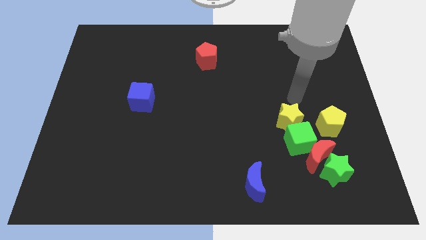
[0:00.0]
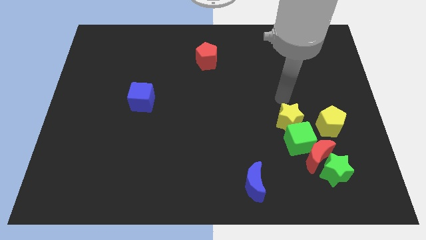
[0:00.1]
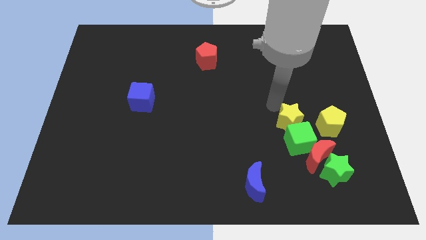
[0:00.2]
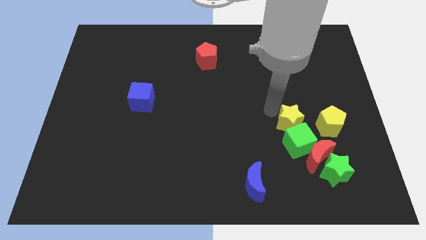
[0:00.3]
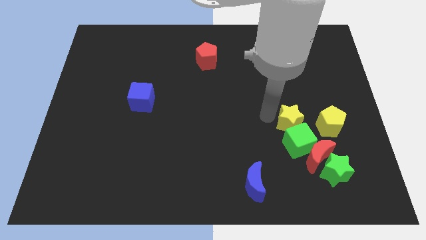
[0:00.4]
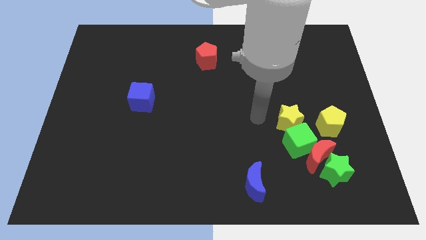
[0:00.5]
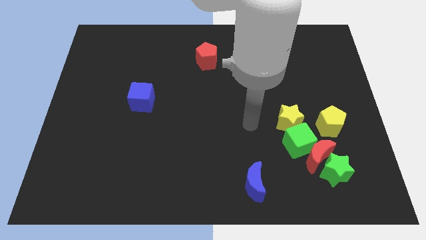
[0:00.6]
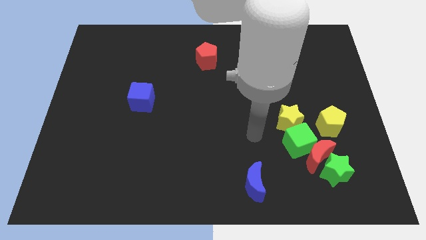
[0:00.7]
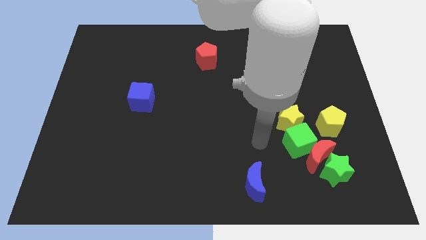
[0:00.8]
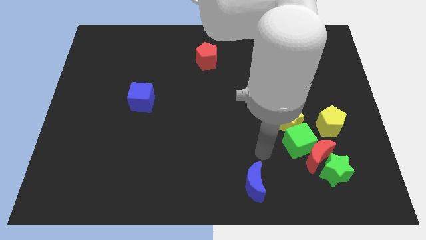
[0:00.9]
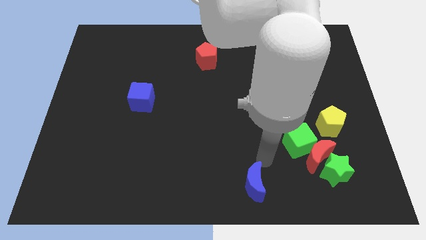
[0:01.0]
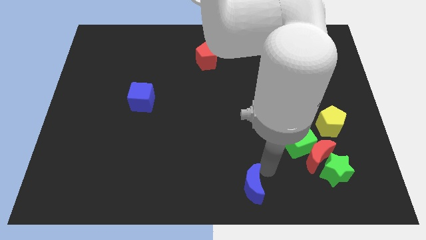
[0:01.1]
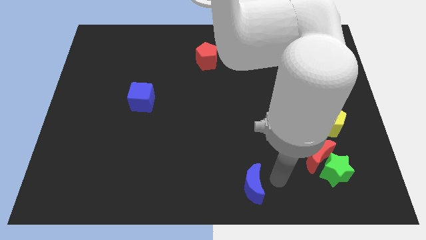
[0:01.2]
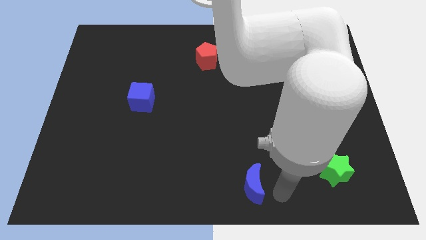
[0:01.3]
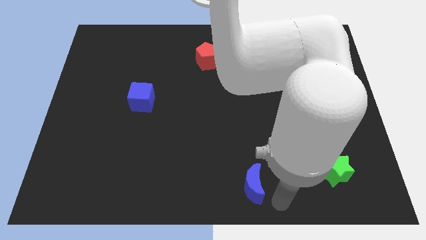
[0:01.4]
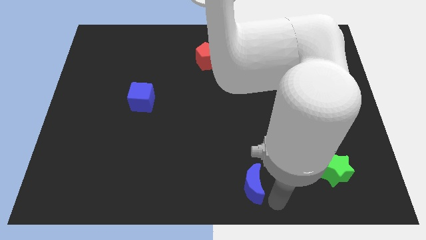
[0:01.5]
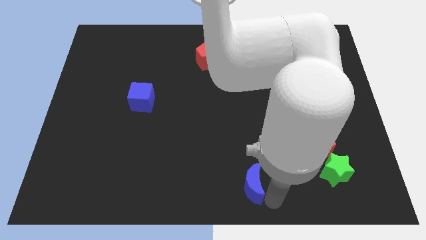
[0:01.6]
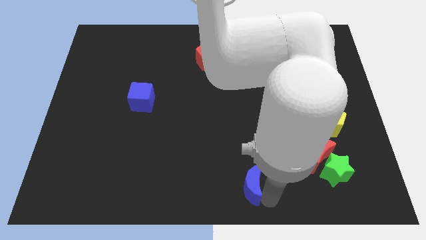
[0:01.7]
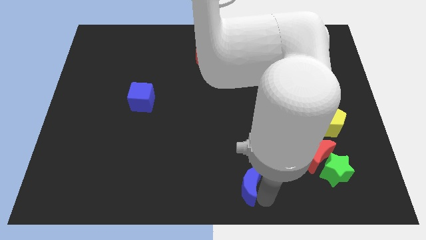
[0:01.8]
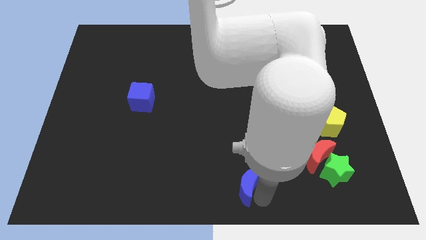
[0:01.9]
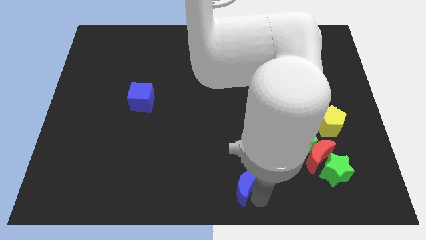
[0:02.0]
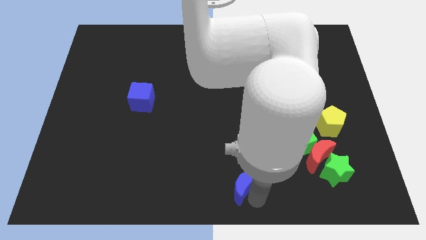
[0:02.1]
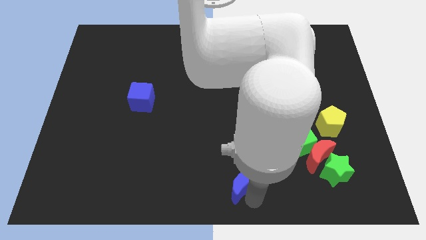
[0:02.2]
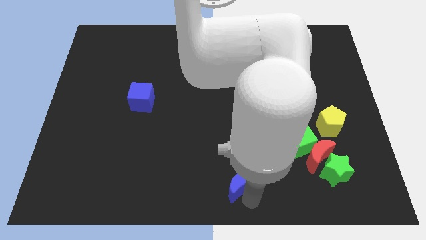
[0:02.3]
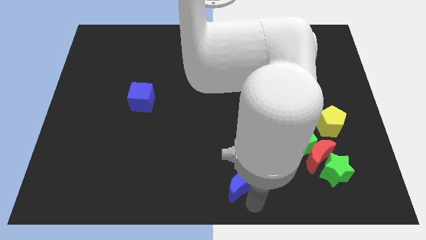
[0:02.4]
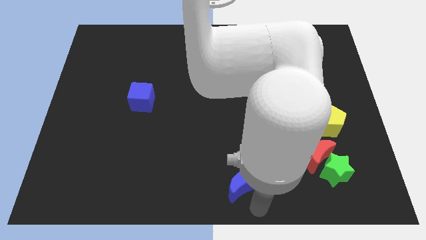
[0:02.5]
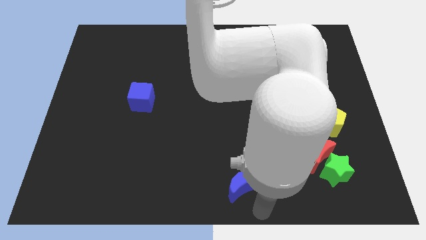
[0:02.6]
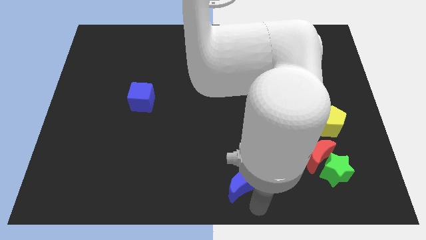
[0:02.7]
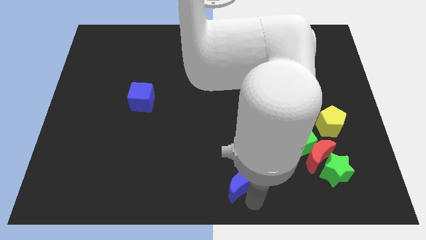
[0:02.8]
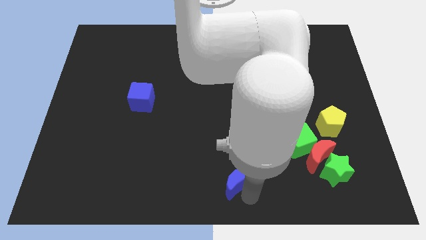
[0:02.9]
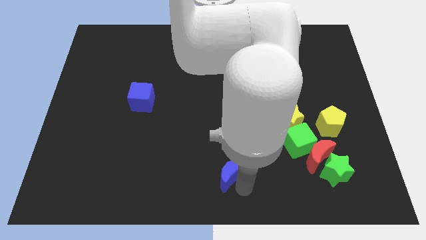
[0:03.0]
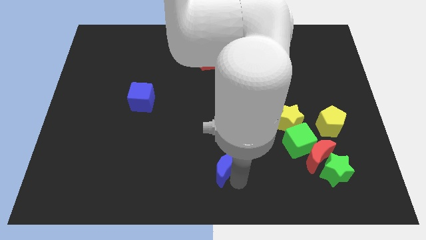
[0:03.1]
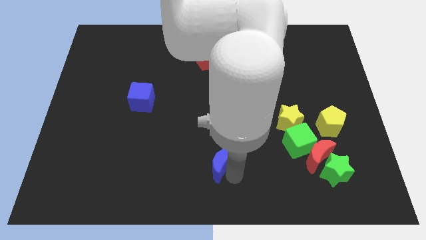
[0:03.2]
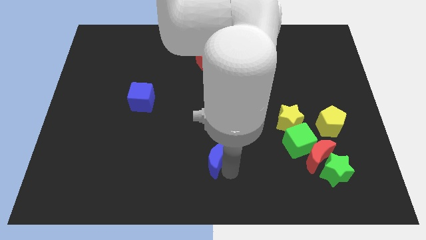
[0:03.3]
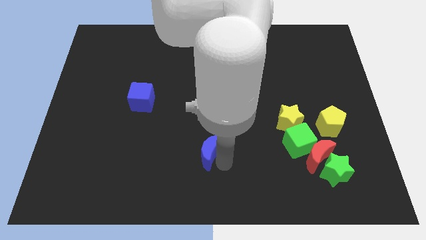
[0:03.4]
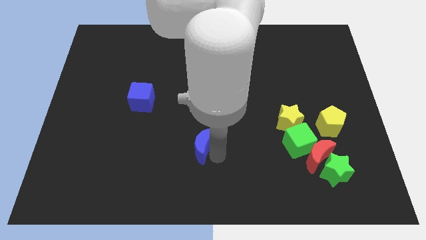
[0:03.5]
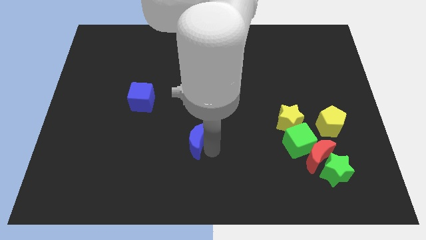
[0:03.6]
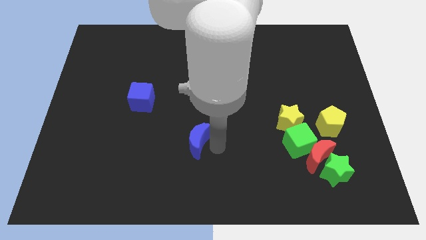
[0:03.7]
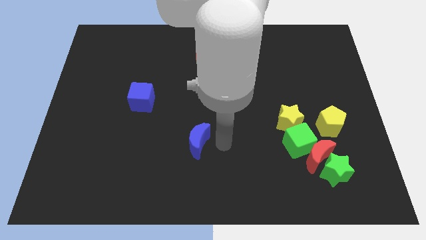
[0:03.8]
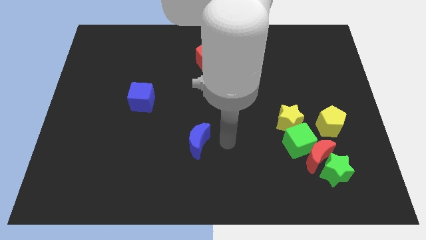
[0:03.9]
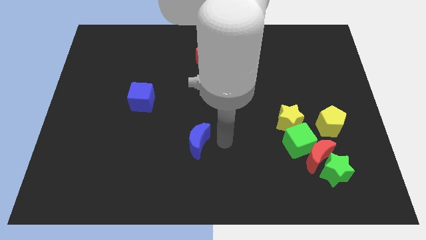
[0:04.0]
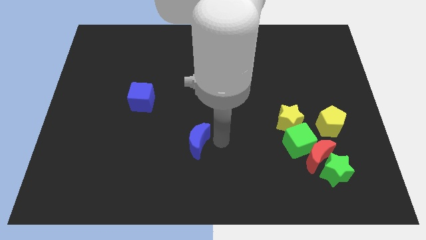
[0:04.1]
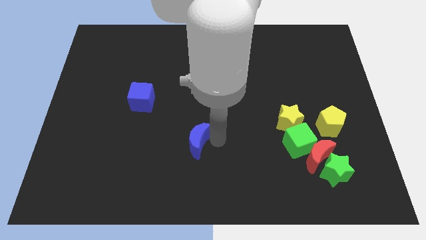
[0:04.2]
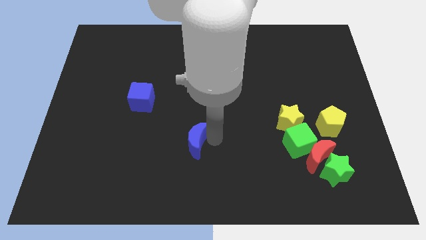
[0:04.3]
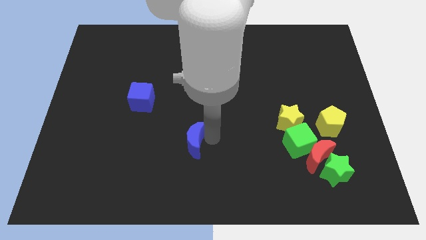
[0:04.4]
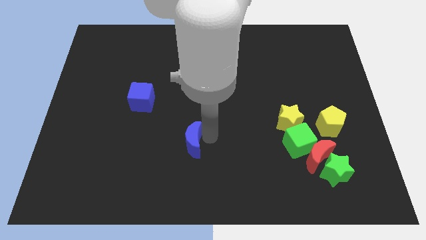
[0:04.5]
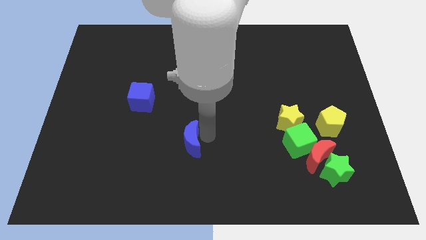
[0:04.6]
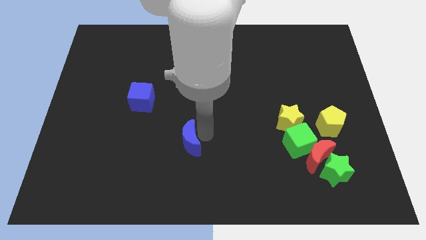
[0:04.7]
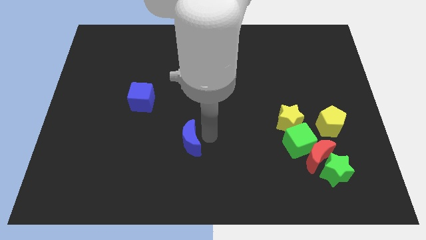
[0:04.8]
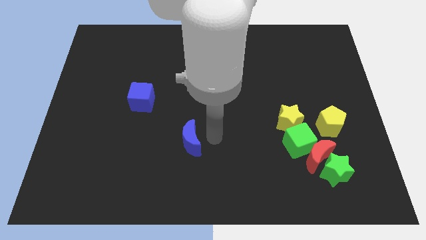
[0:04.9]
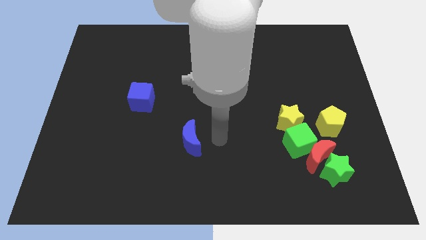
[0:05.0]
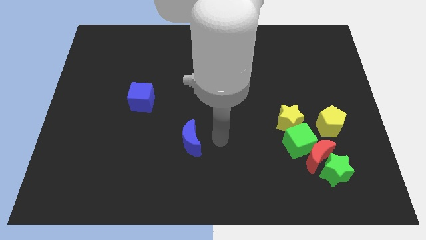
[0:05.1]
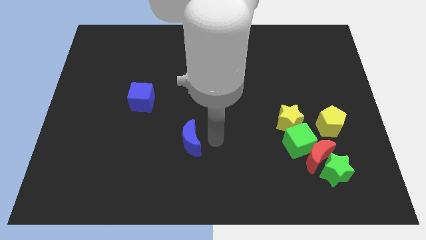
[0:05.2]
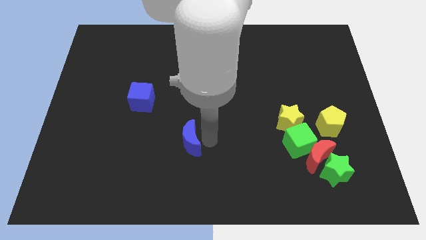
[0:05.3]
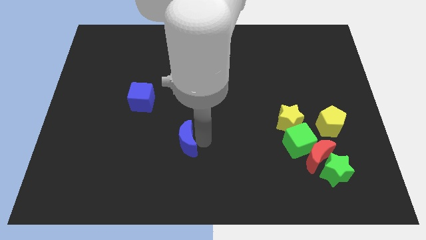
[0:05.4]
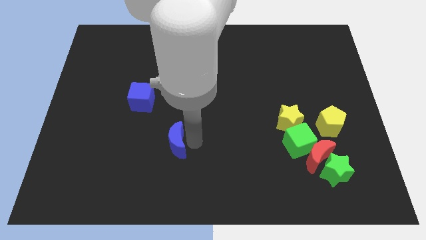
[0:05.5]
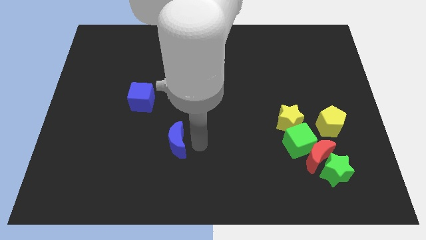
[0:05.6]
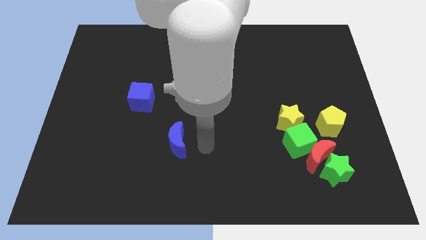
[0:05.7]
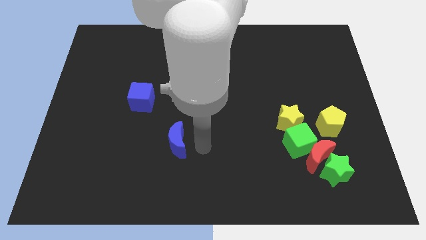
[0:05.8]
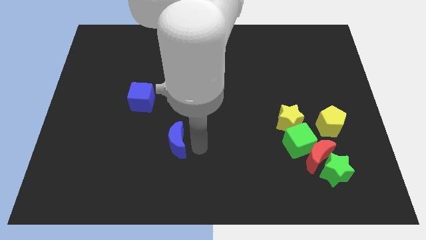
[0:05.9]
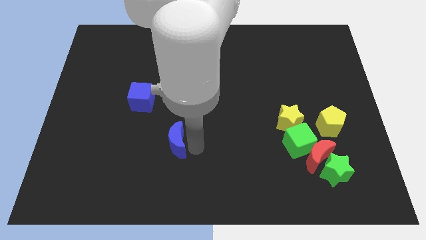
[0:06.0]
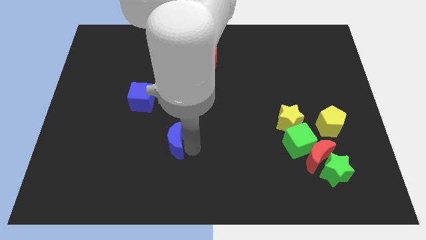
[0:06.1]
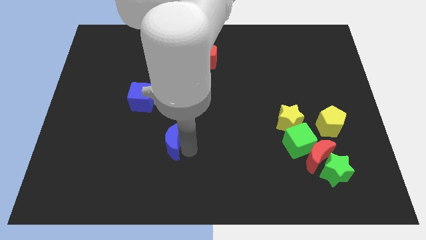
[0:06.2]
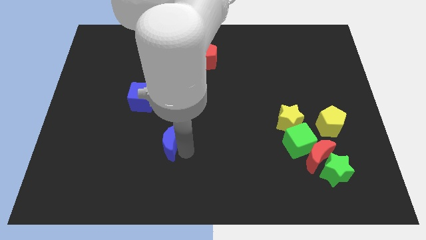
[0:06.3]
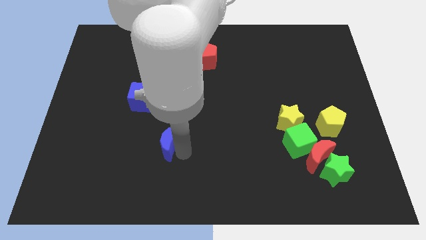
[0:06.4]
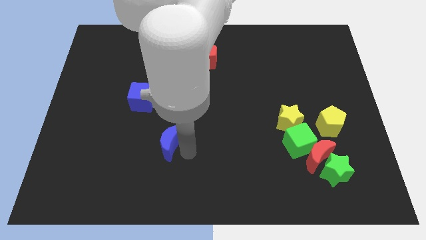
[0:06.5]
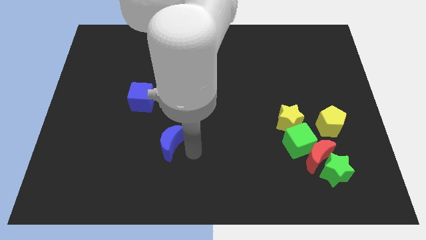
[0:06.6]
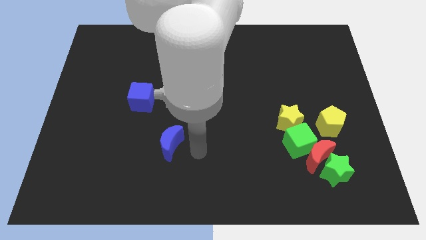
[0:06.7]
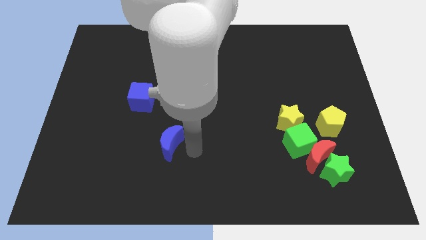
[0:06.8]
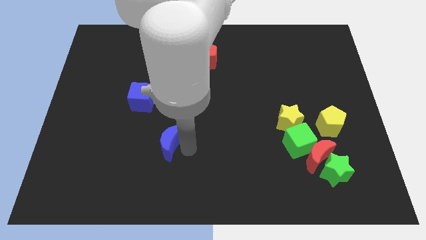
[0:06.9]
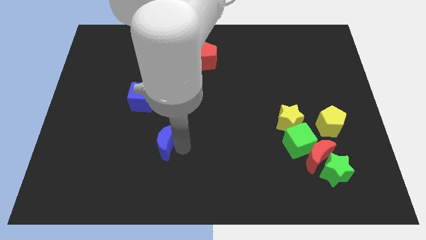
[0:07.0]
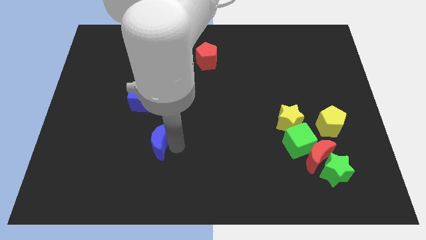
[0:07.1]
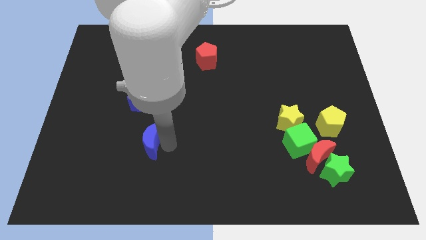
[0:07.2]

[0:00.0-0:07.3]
slide the blue moon below the blue cube
